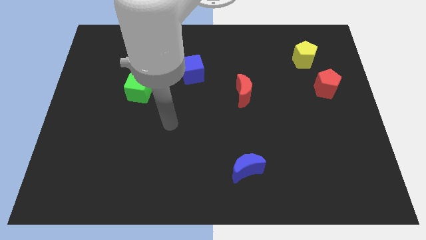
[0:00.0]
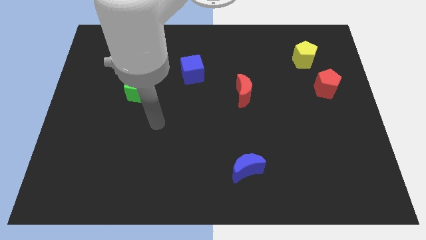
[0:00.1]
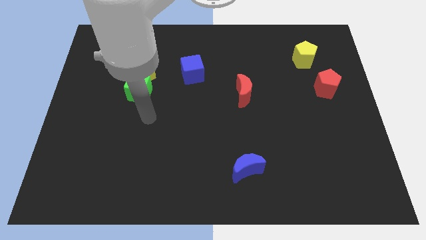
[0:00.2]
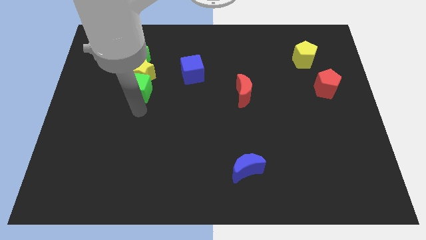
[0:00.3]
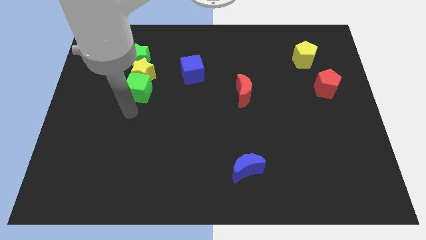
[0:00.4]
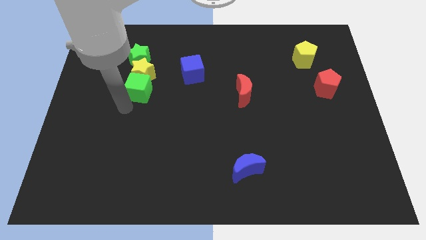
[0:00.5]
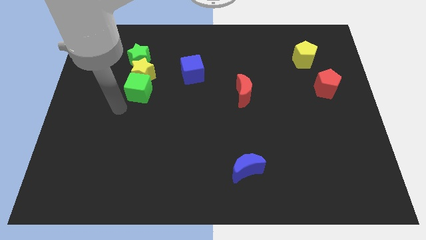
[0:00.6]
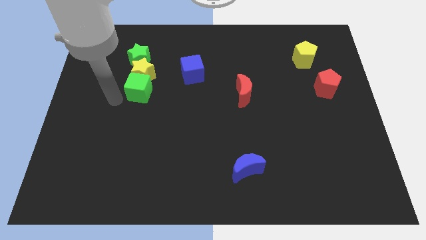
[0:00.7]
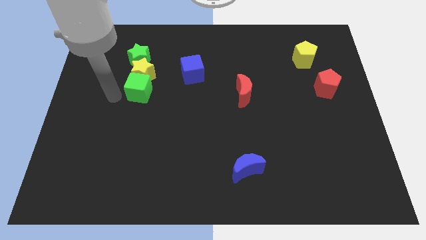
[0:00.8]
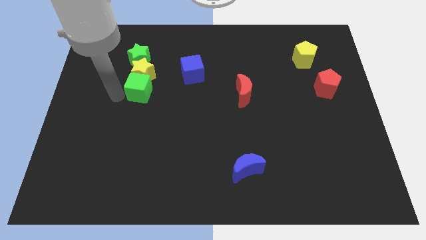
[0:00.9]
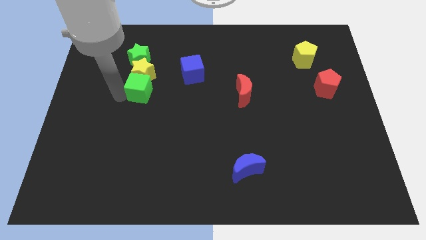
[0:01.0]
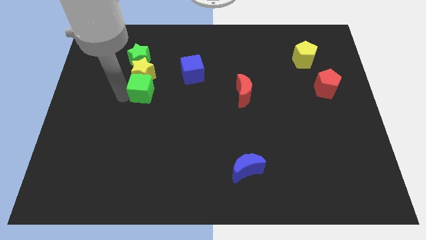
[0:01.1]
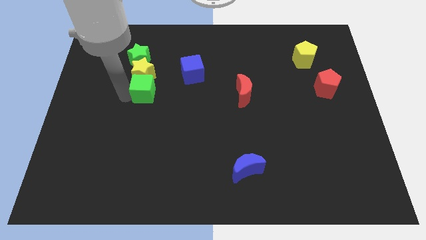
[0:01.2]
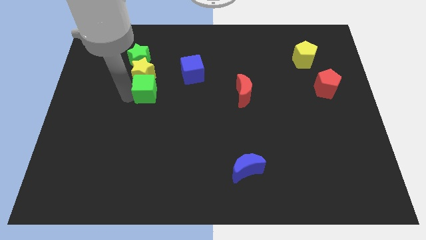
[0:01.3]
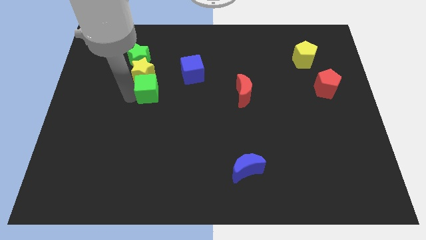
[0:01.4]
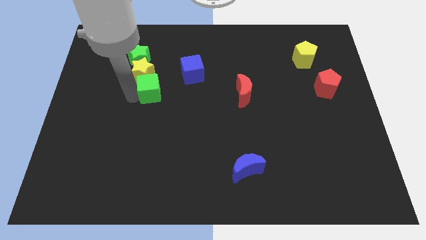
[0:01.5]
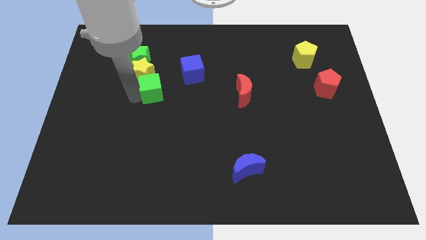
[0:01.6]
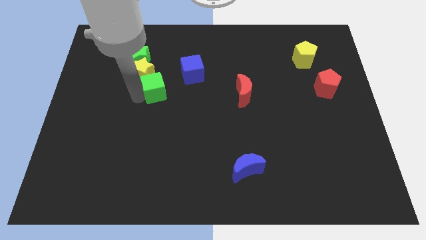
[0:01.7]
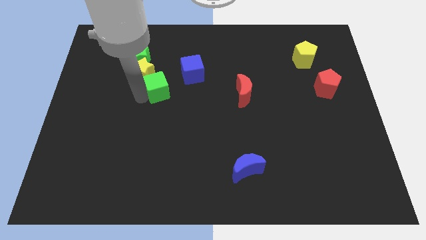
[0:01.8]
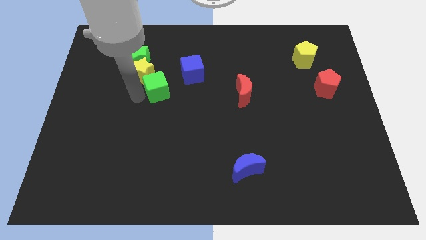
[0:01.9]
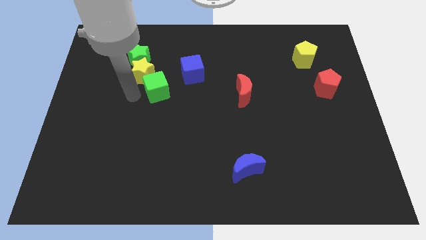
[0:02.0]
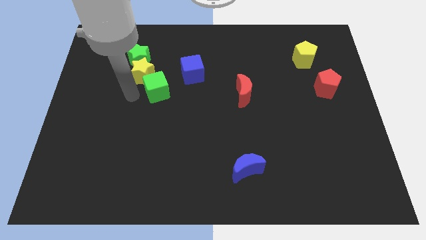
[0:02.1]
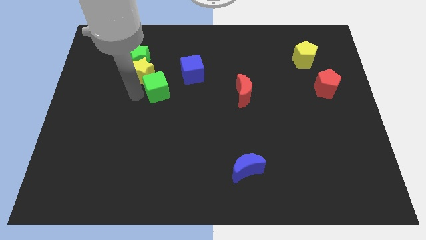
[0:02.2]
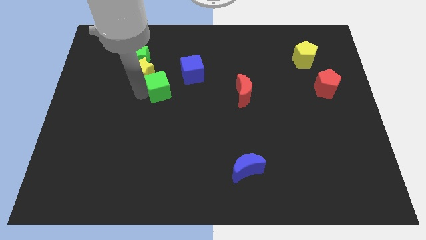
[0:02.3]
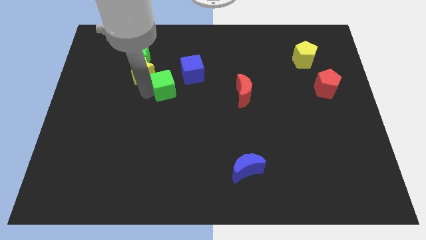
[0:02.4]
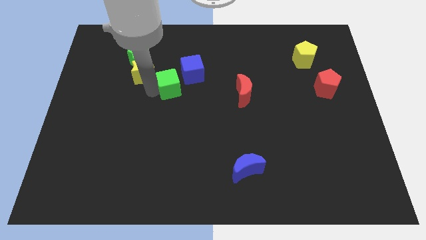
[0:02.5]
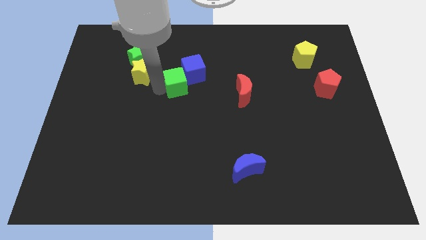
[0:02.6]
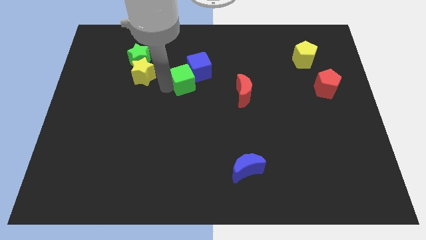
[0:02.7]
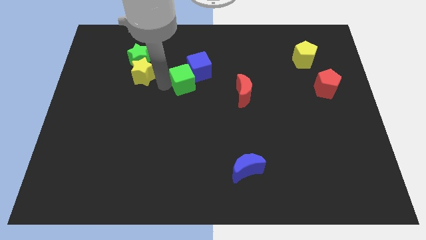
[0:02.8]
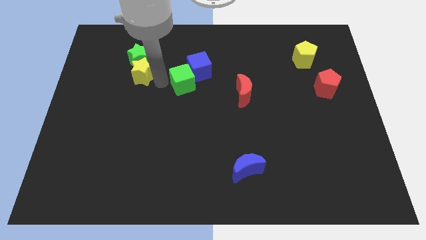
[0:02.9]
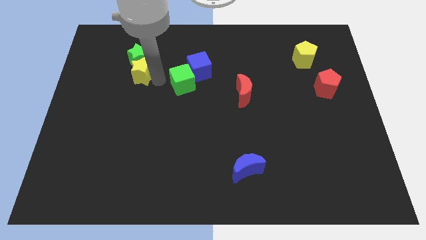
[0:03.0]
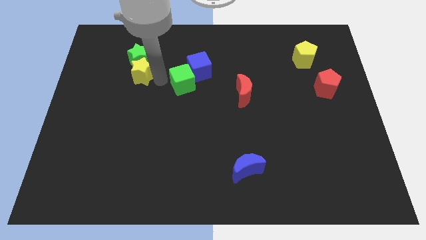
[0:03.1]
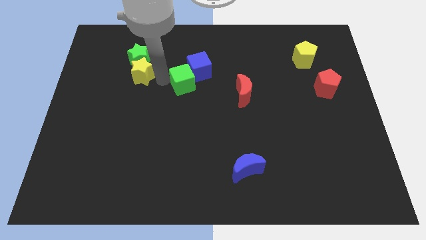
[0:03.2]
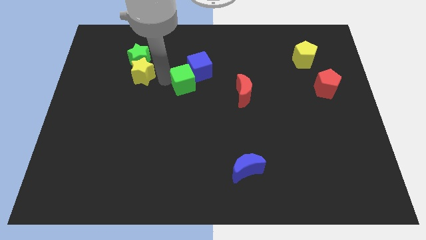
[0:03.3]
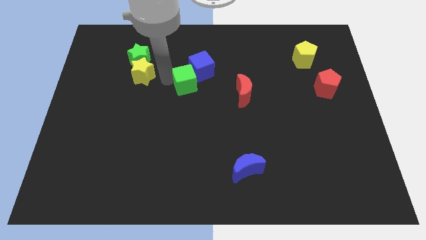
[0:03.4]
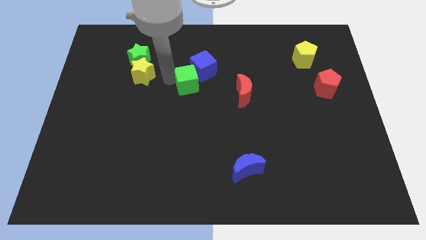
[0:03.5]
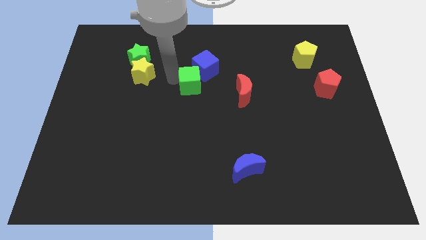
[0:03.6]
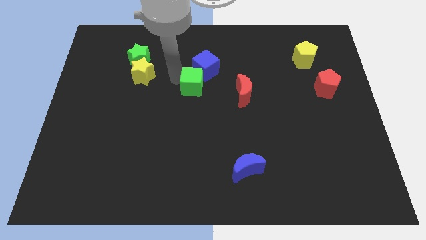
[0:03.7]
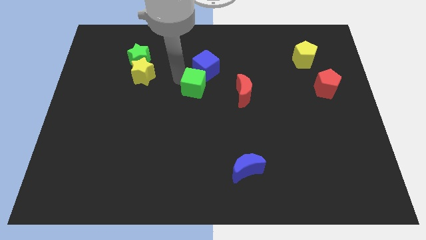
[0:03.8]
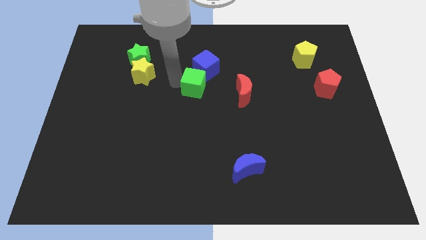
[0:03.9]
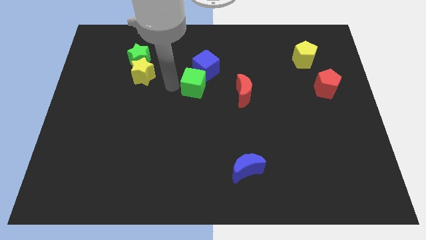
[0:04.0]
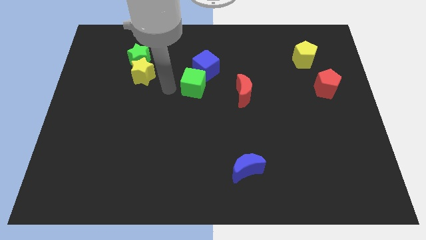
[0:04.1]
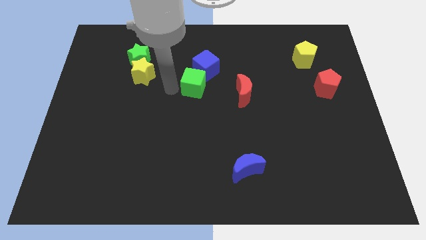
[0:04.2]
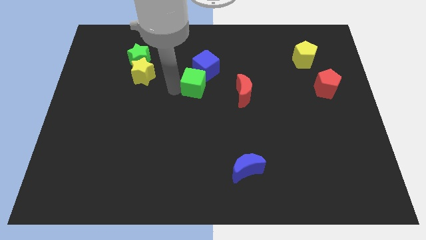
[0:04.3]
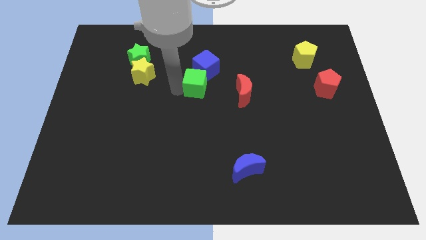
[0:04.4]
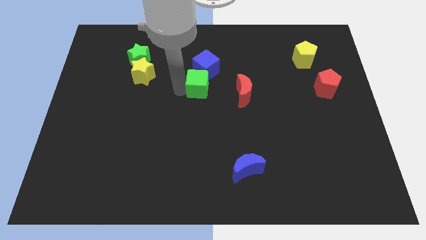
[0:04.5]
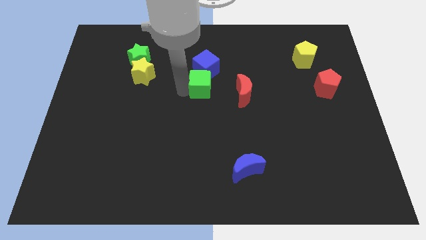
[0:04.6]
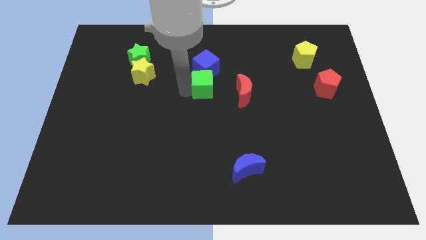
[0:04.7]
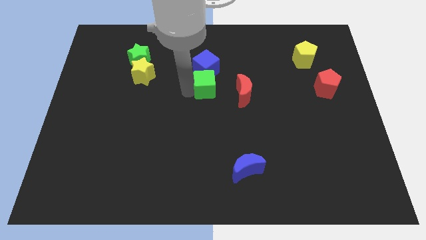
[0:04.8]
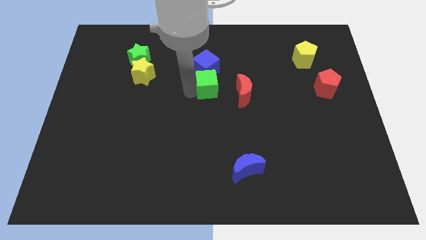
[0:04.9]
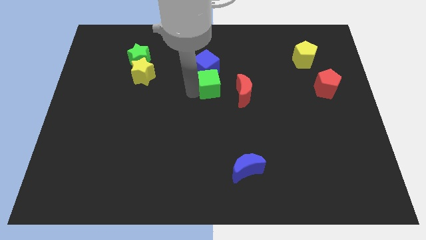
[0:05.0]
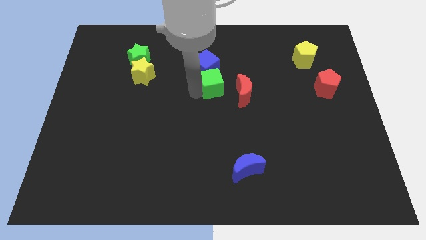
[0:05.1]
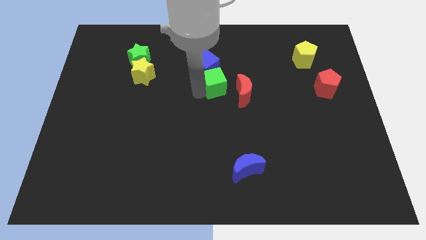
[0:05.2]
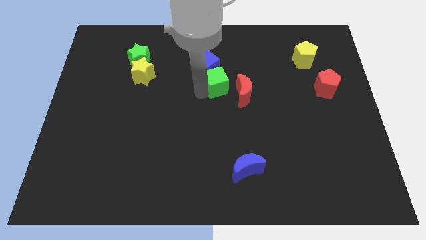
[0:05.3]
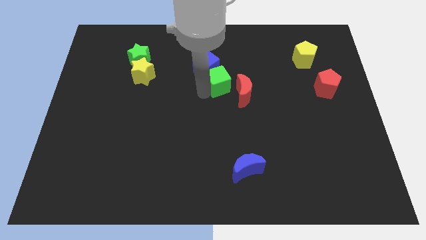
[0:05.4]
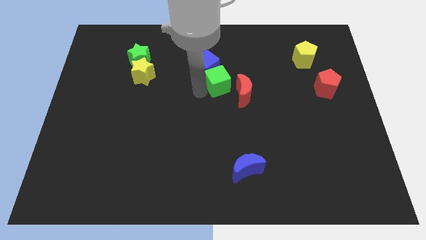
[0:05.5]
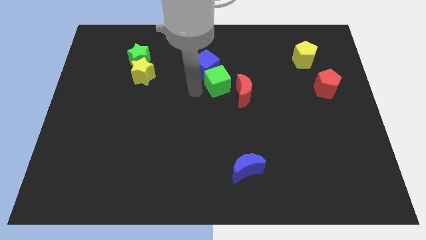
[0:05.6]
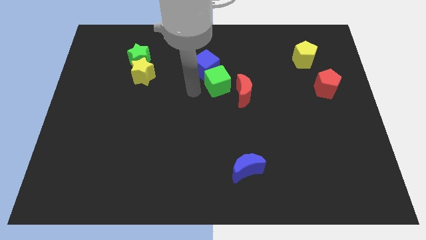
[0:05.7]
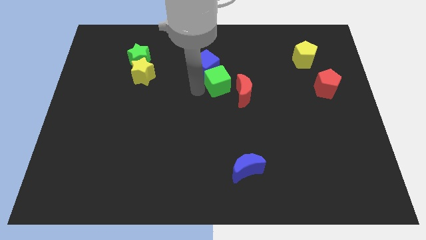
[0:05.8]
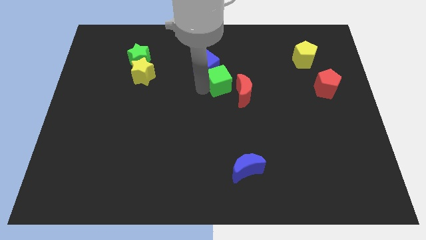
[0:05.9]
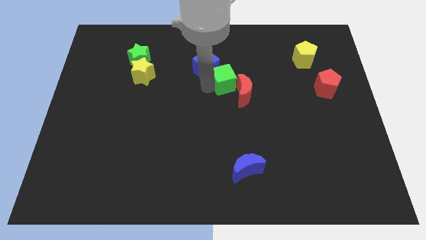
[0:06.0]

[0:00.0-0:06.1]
move the green cube right

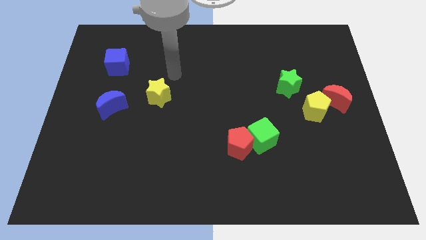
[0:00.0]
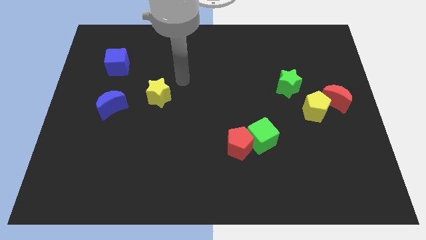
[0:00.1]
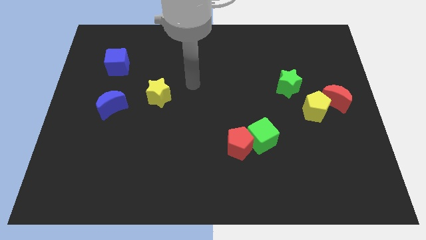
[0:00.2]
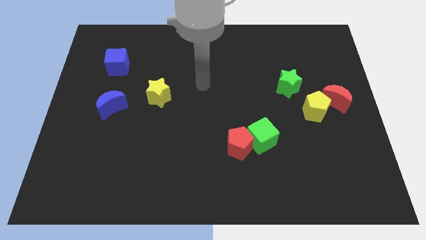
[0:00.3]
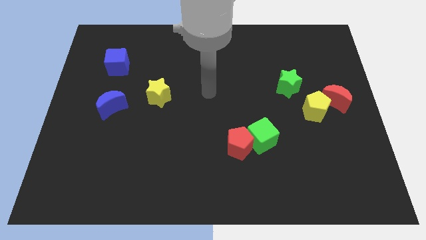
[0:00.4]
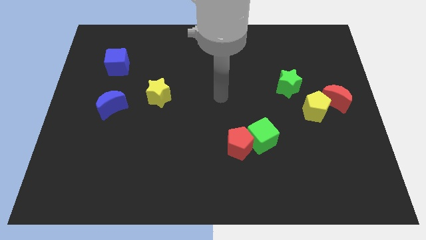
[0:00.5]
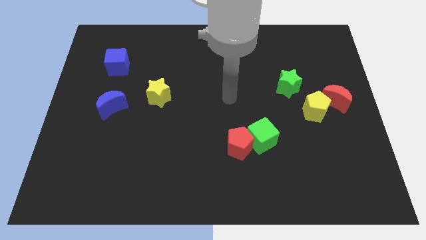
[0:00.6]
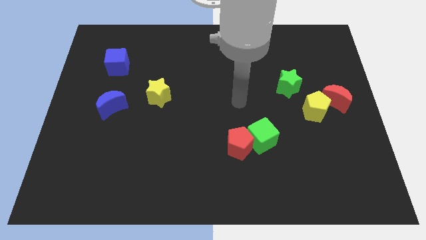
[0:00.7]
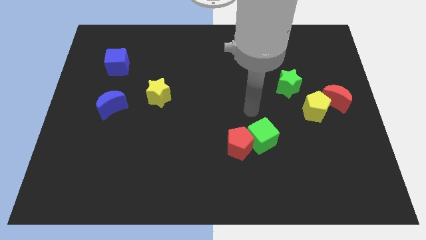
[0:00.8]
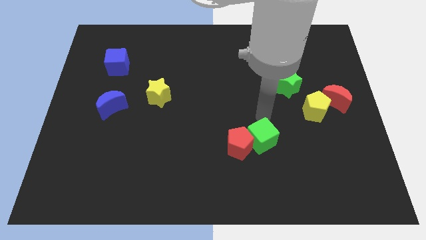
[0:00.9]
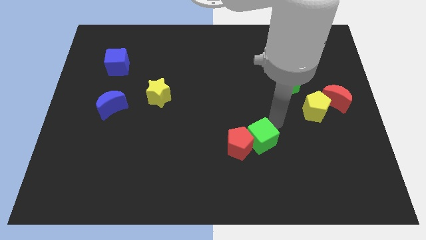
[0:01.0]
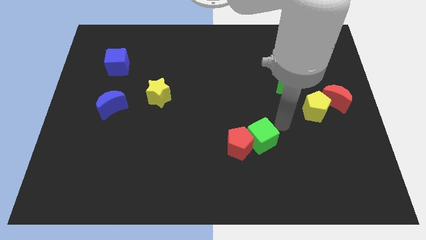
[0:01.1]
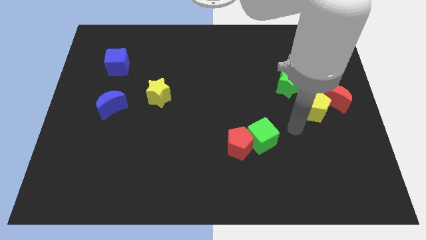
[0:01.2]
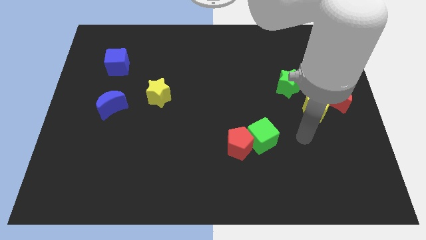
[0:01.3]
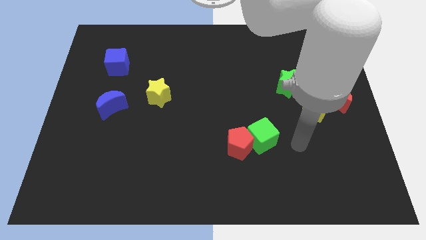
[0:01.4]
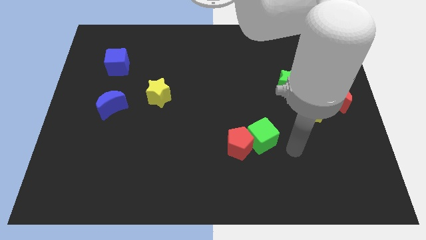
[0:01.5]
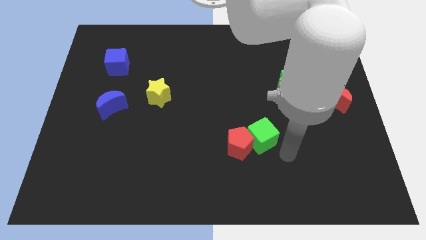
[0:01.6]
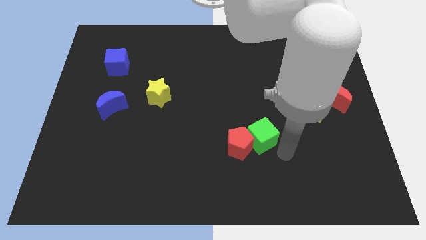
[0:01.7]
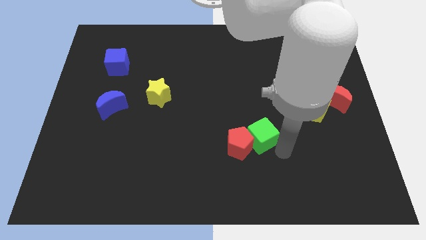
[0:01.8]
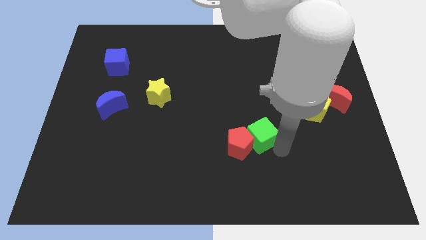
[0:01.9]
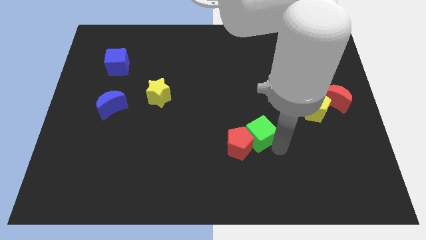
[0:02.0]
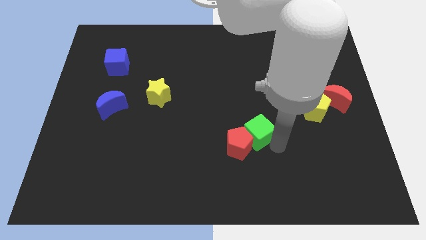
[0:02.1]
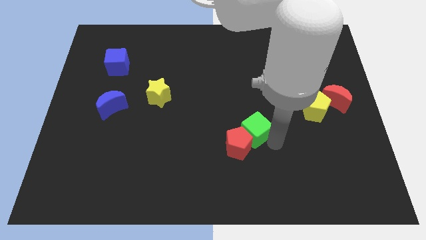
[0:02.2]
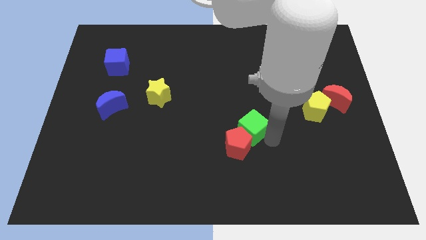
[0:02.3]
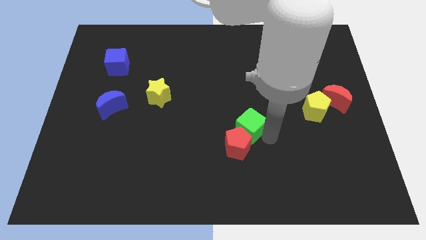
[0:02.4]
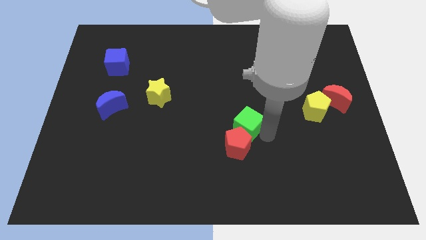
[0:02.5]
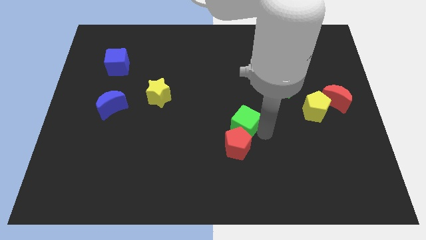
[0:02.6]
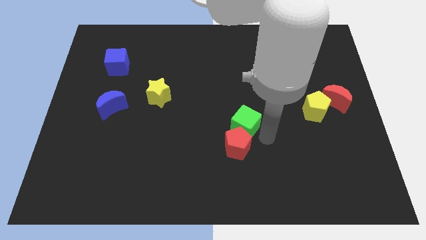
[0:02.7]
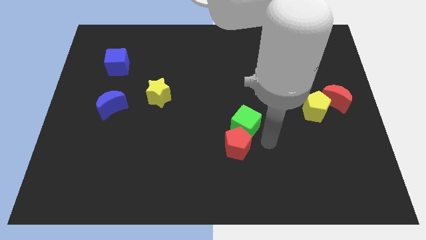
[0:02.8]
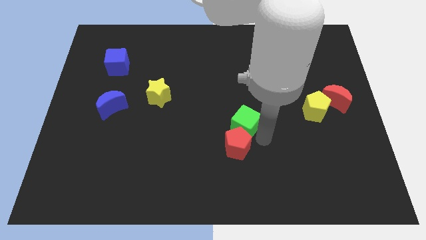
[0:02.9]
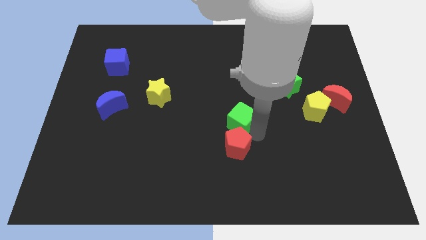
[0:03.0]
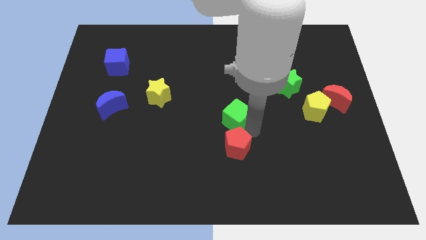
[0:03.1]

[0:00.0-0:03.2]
move the green cube up and left a bit
